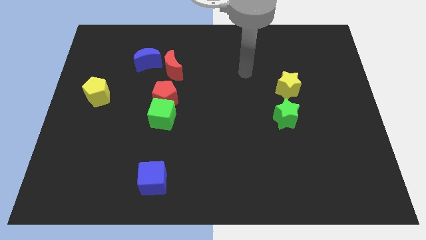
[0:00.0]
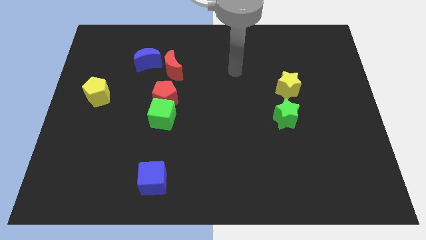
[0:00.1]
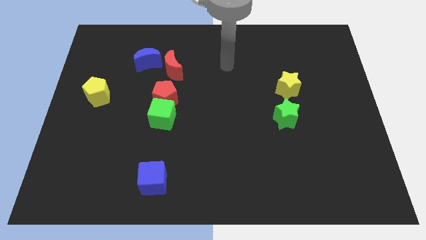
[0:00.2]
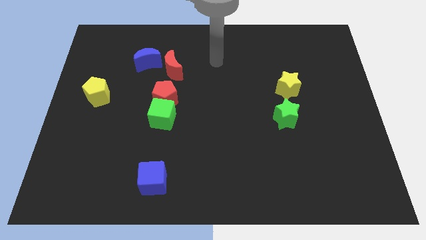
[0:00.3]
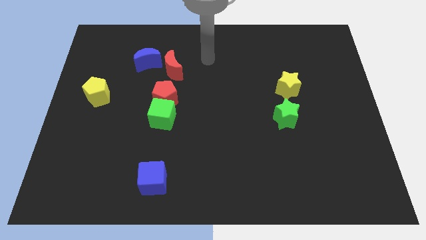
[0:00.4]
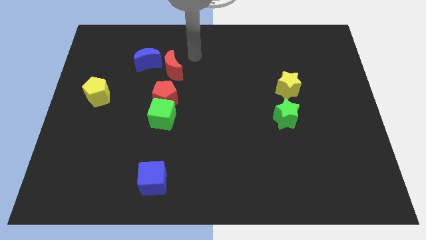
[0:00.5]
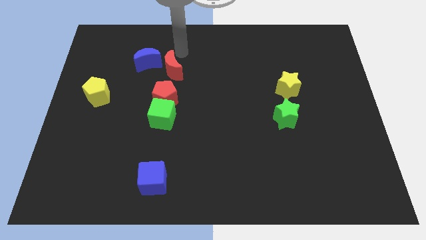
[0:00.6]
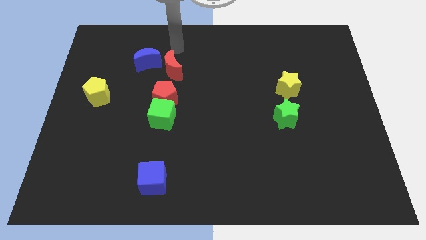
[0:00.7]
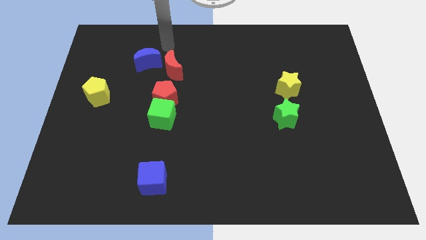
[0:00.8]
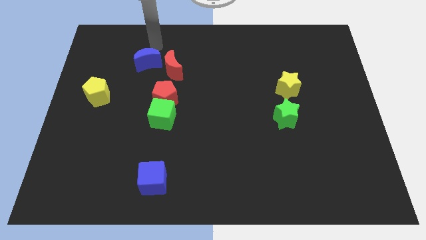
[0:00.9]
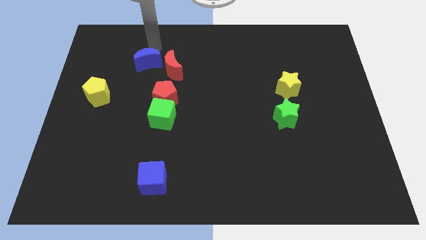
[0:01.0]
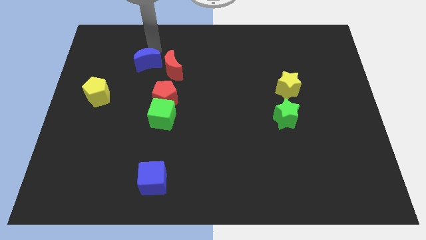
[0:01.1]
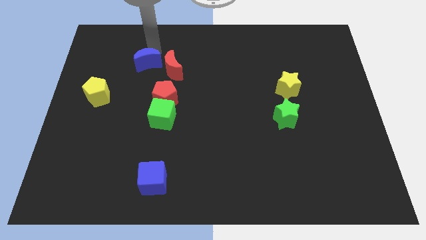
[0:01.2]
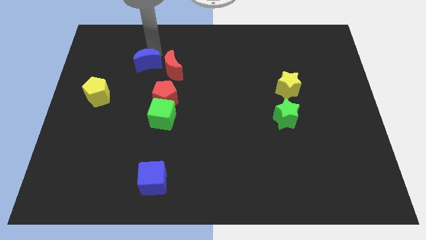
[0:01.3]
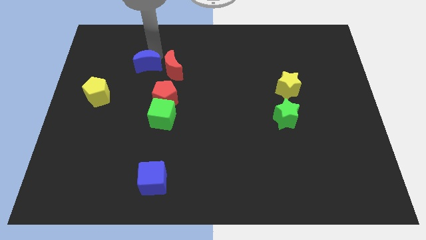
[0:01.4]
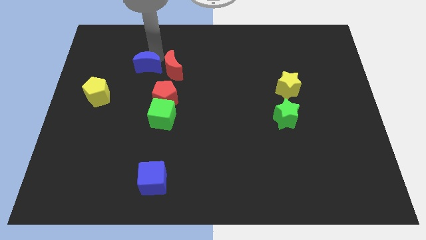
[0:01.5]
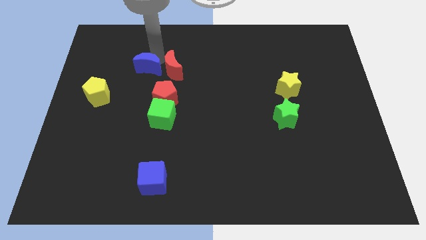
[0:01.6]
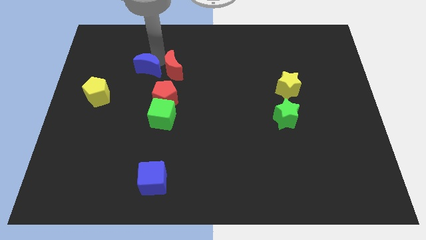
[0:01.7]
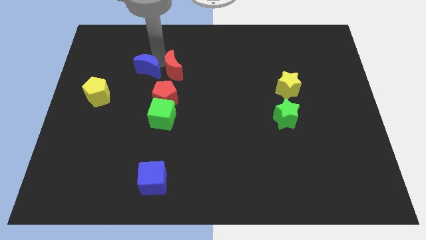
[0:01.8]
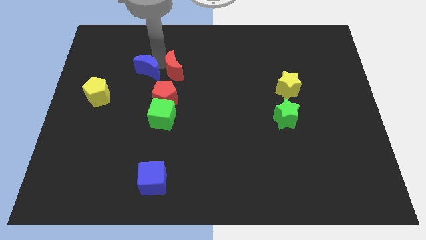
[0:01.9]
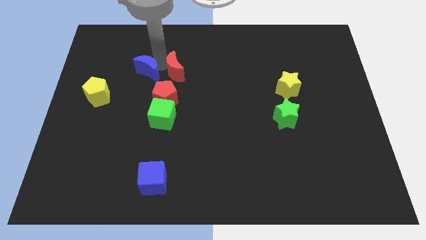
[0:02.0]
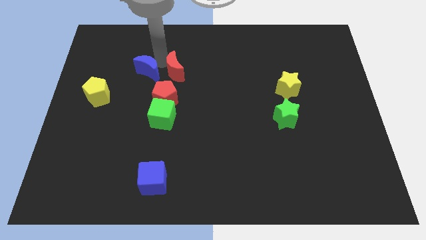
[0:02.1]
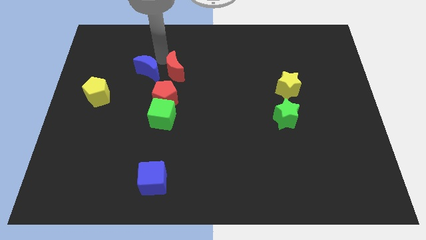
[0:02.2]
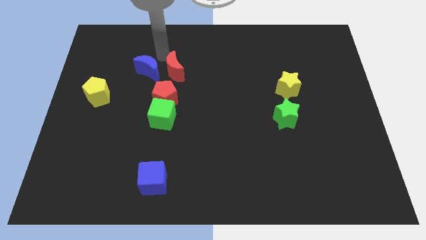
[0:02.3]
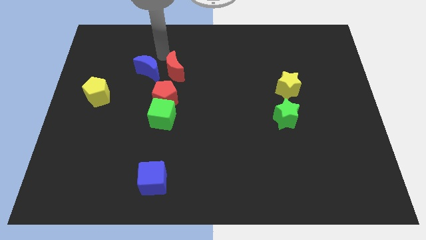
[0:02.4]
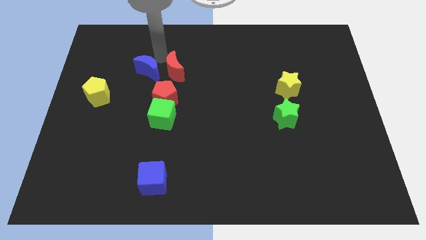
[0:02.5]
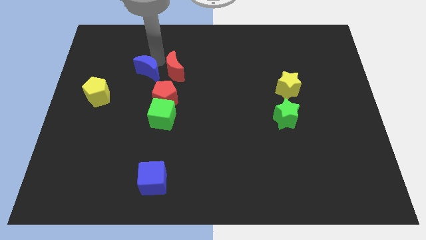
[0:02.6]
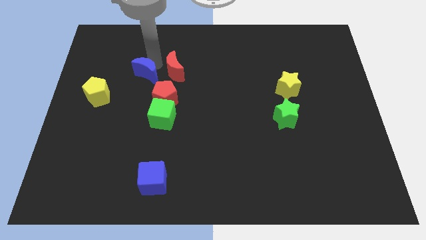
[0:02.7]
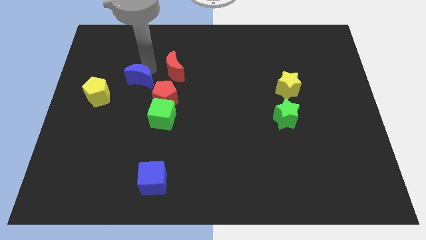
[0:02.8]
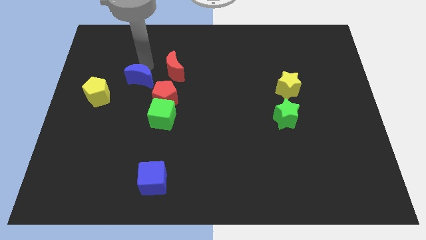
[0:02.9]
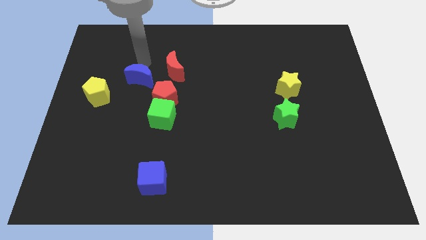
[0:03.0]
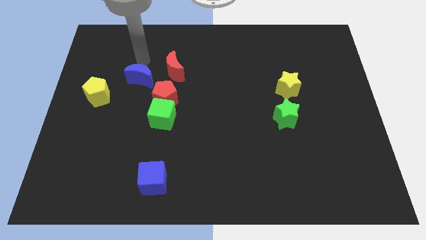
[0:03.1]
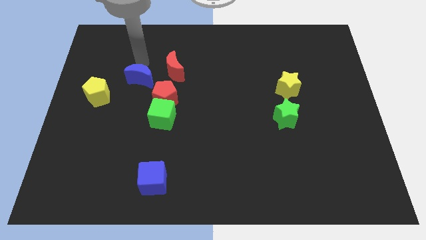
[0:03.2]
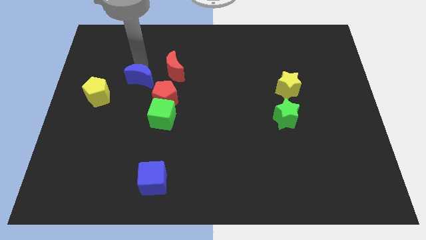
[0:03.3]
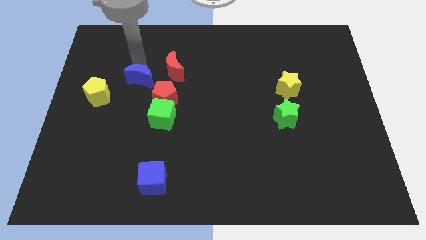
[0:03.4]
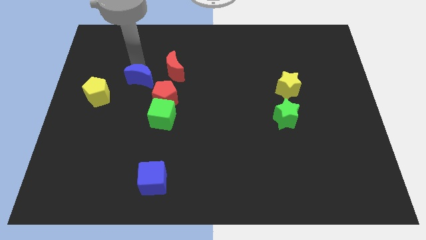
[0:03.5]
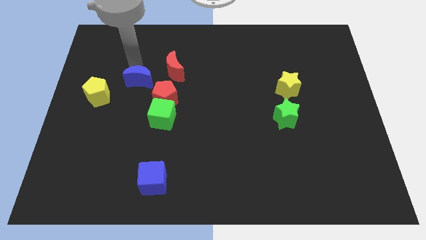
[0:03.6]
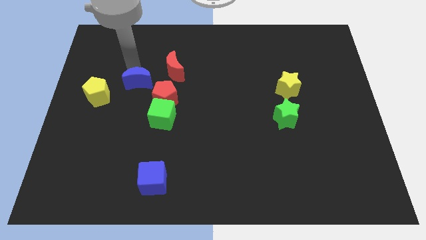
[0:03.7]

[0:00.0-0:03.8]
slightly push the blue moon down

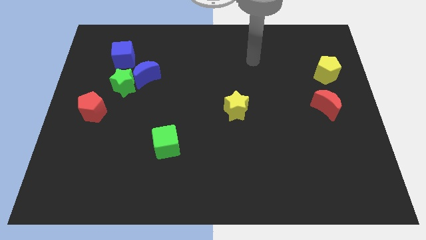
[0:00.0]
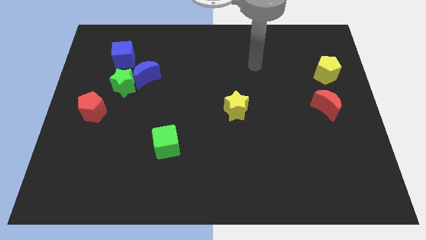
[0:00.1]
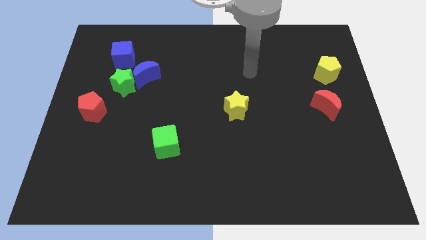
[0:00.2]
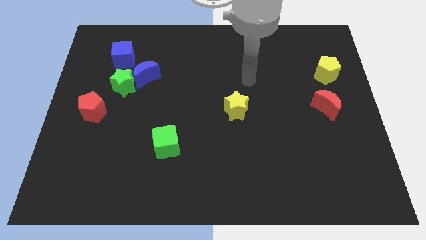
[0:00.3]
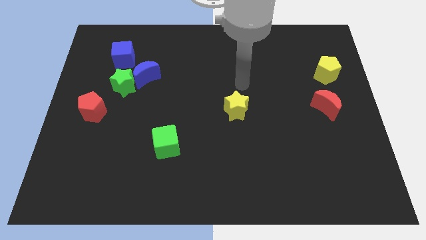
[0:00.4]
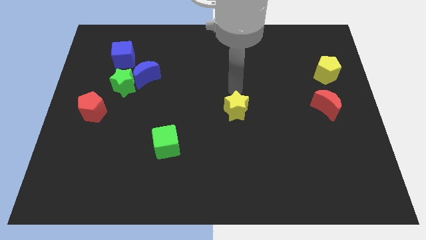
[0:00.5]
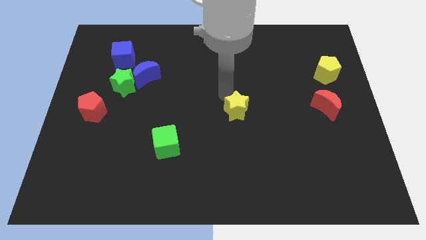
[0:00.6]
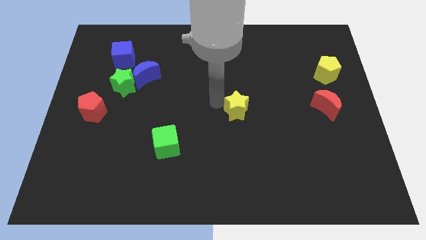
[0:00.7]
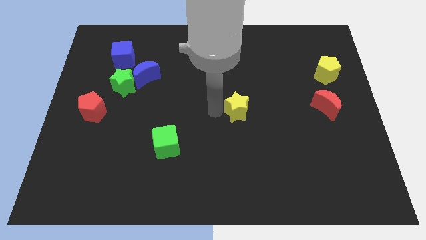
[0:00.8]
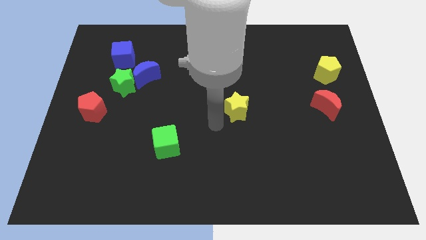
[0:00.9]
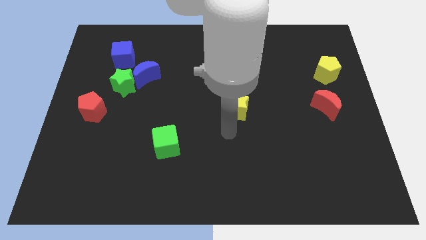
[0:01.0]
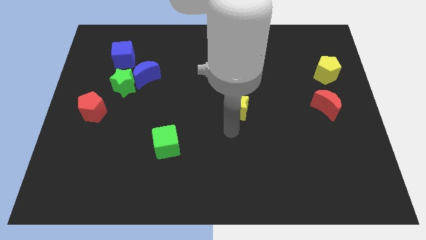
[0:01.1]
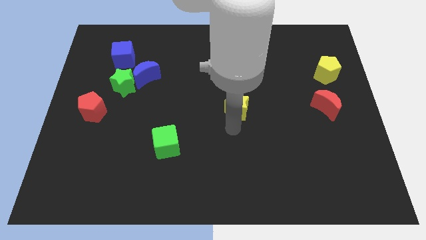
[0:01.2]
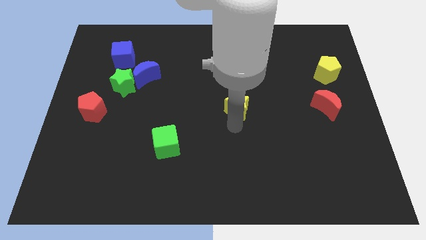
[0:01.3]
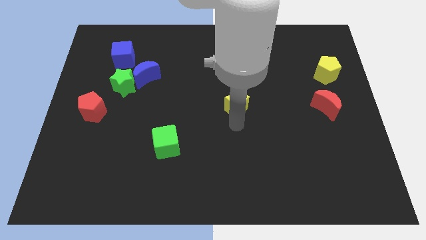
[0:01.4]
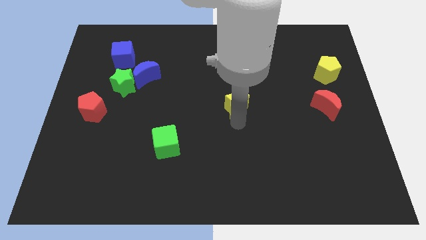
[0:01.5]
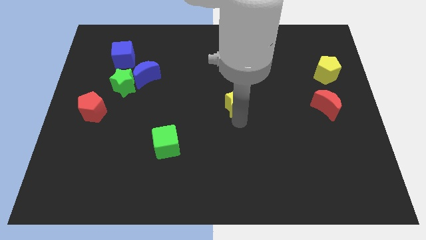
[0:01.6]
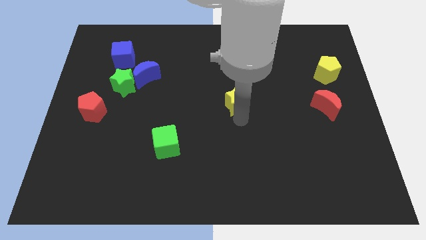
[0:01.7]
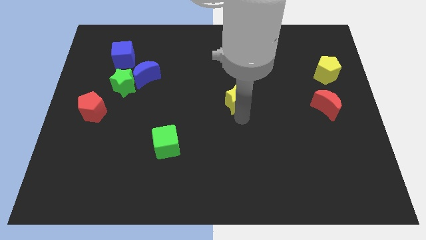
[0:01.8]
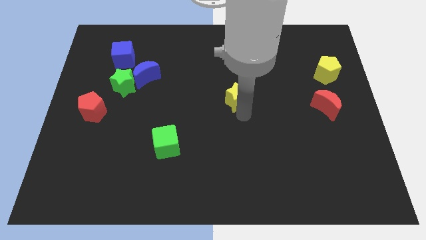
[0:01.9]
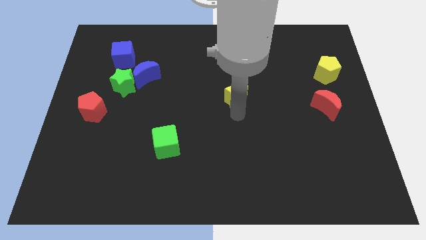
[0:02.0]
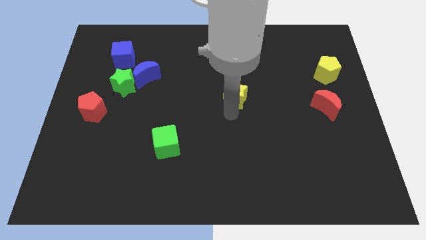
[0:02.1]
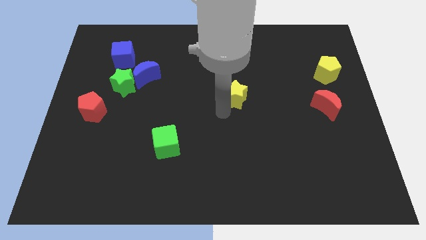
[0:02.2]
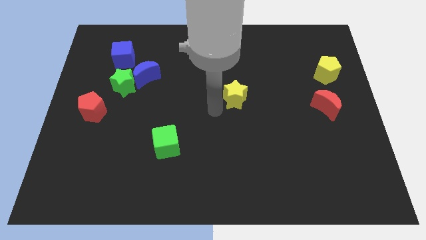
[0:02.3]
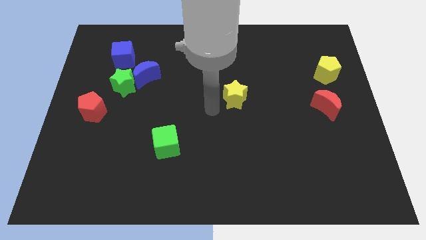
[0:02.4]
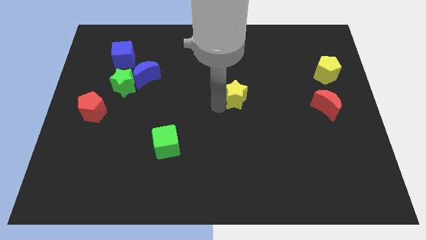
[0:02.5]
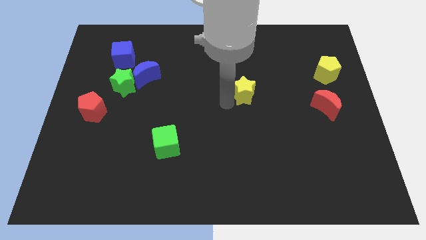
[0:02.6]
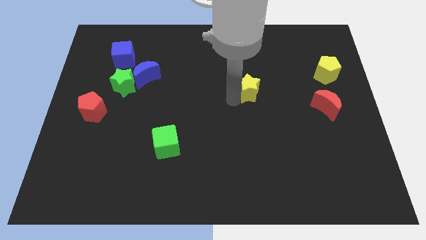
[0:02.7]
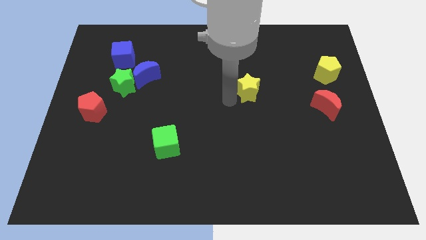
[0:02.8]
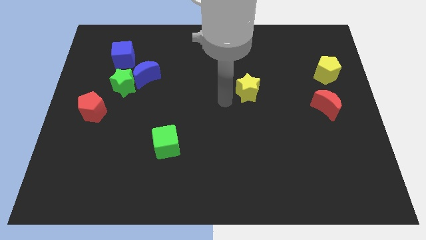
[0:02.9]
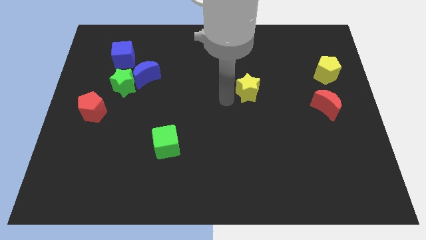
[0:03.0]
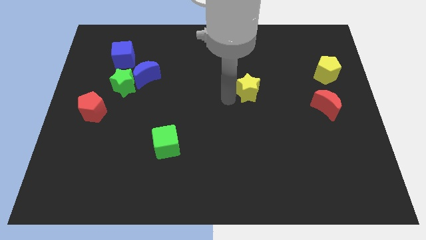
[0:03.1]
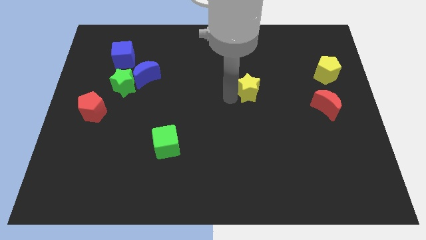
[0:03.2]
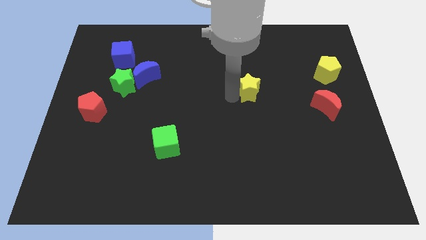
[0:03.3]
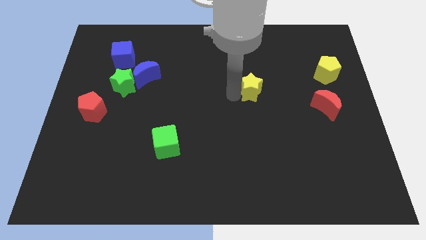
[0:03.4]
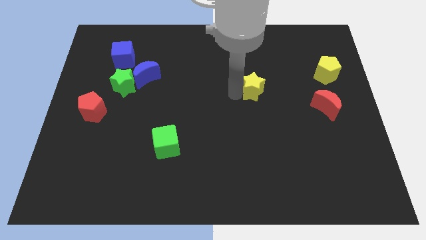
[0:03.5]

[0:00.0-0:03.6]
push the yellow star slightly upwards and then to the right

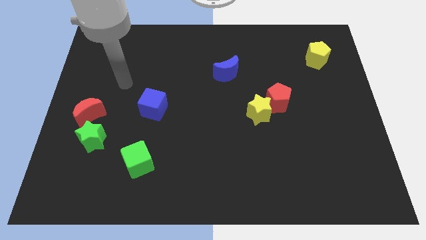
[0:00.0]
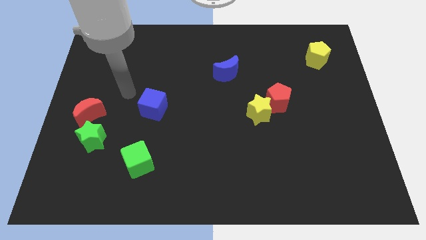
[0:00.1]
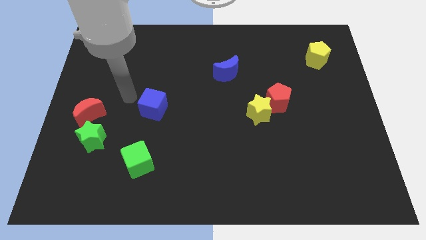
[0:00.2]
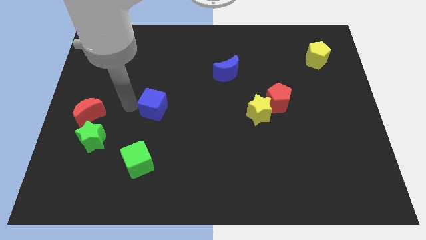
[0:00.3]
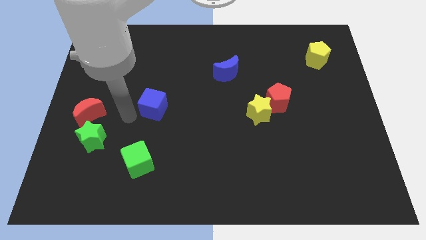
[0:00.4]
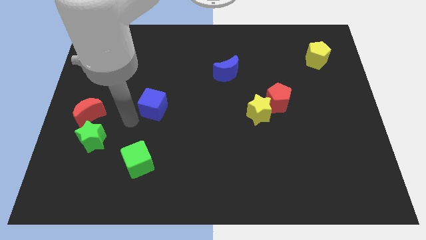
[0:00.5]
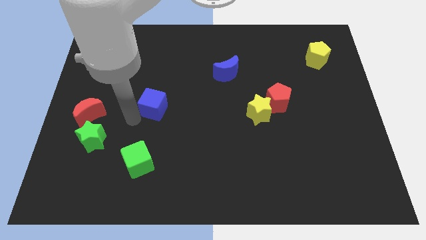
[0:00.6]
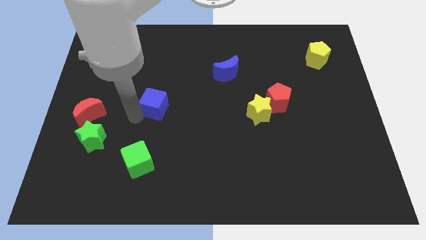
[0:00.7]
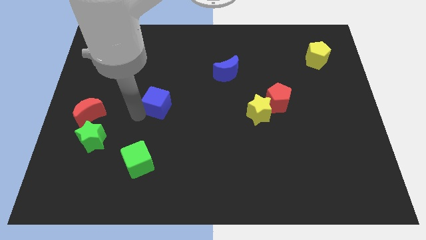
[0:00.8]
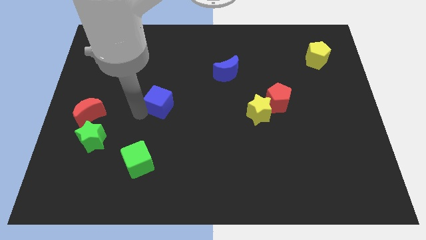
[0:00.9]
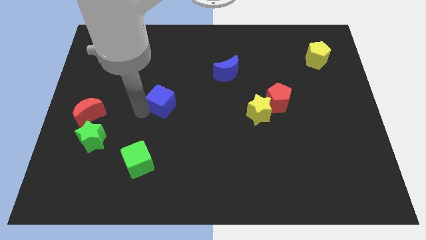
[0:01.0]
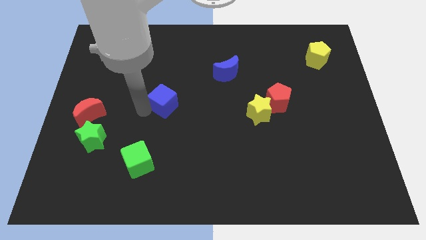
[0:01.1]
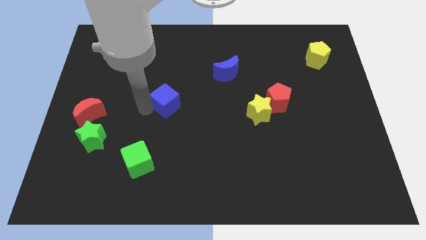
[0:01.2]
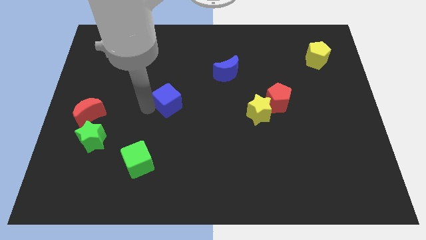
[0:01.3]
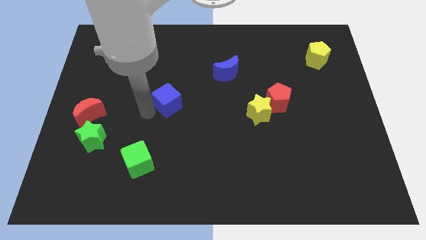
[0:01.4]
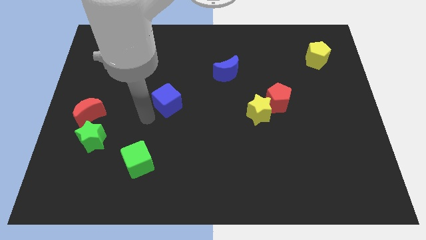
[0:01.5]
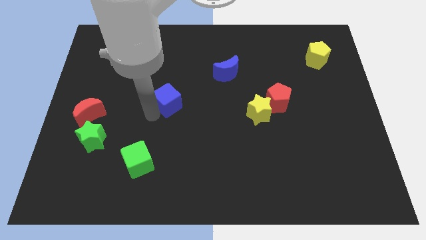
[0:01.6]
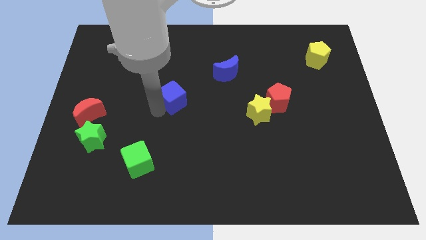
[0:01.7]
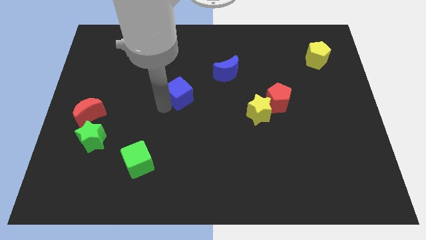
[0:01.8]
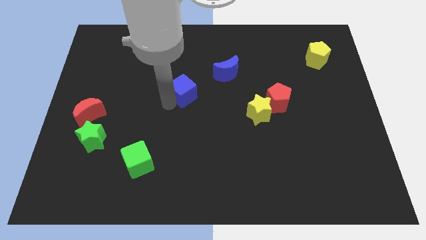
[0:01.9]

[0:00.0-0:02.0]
slightly push the blue cube upwards and then right
